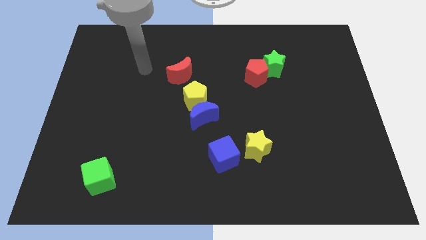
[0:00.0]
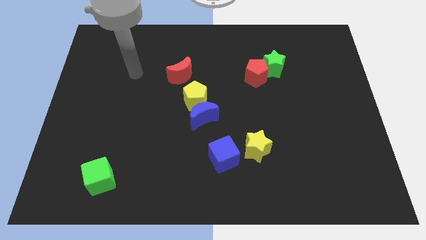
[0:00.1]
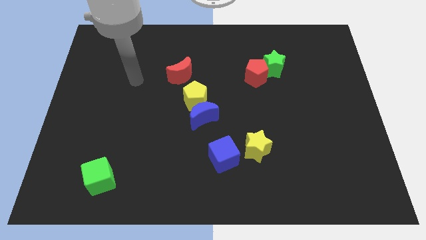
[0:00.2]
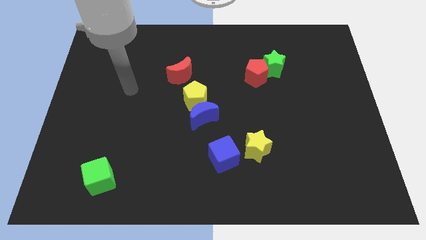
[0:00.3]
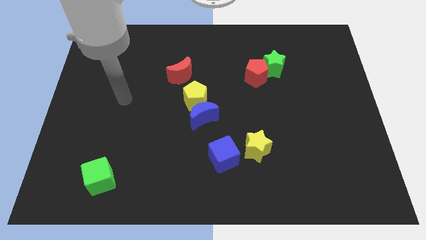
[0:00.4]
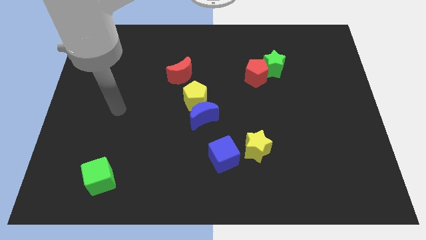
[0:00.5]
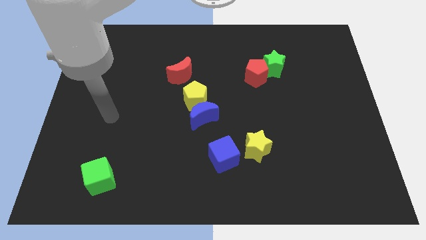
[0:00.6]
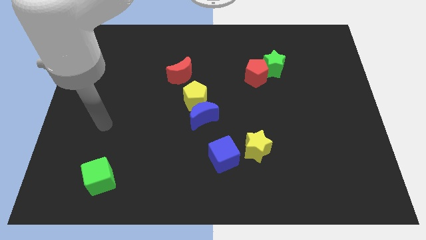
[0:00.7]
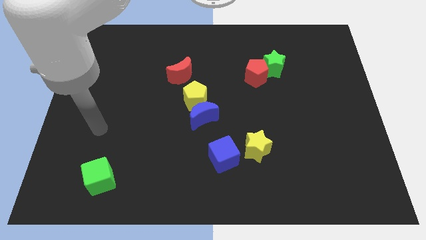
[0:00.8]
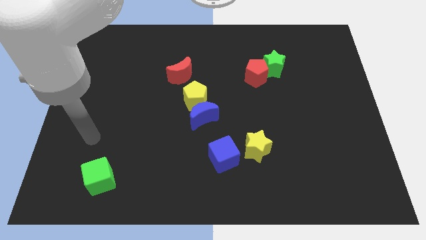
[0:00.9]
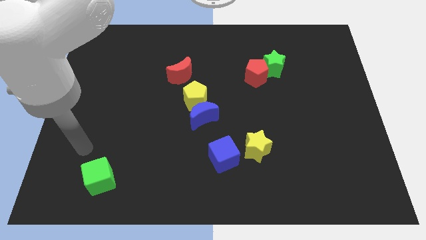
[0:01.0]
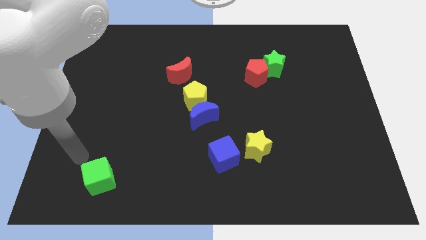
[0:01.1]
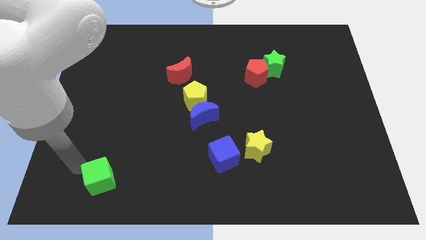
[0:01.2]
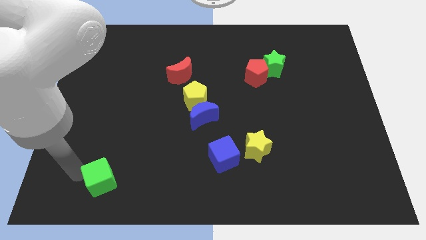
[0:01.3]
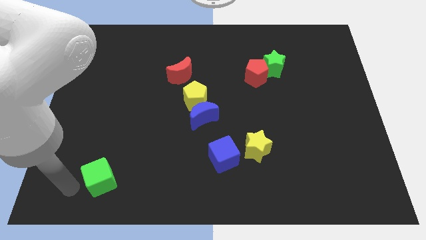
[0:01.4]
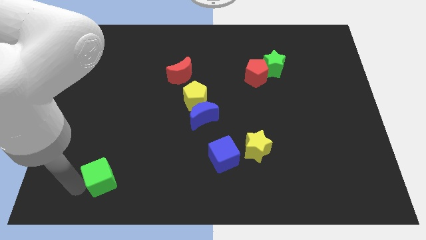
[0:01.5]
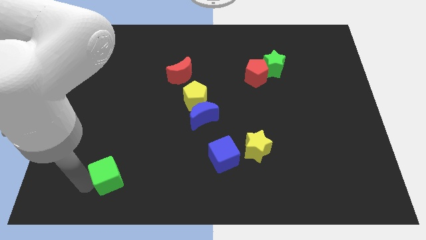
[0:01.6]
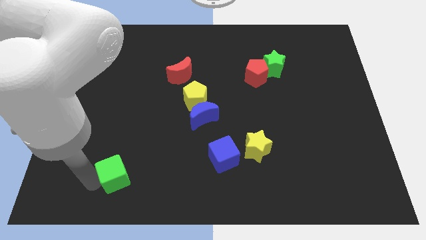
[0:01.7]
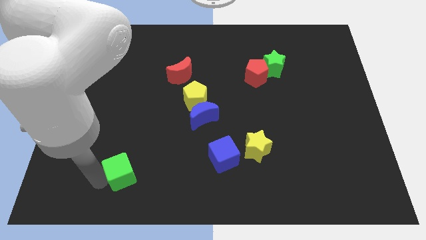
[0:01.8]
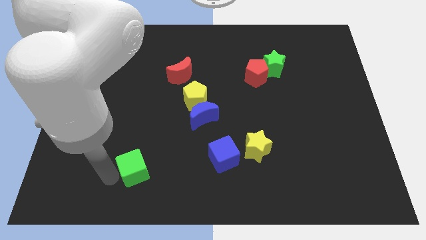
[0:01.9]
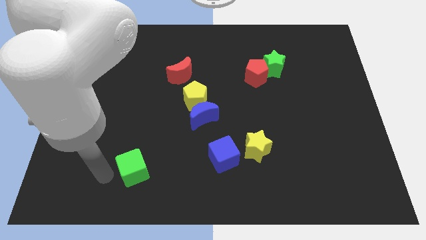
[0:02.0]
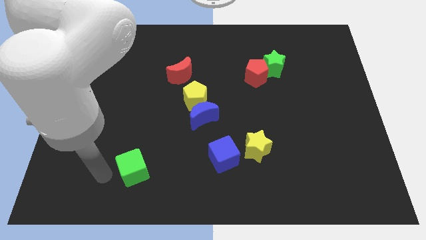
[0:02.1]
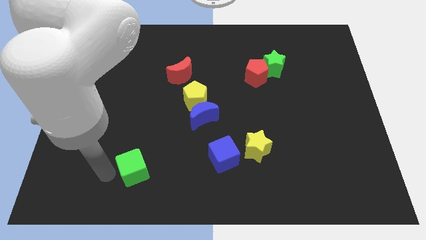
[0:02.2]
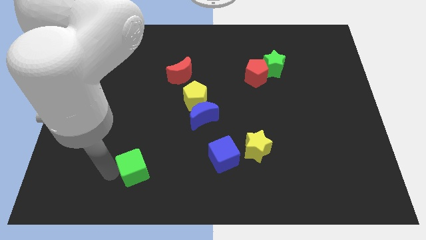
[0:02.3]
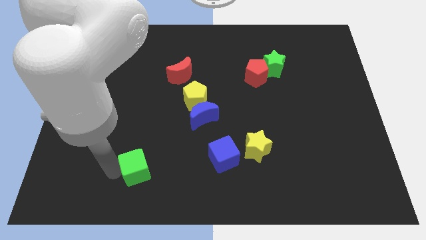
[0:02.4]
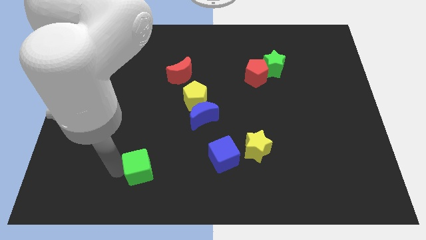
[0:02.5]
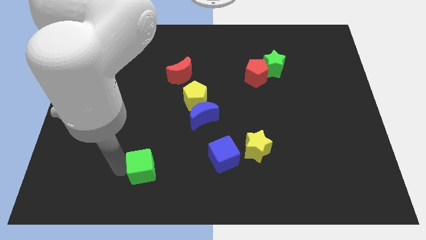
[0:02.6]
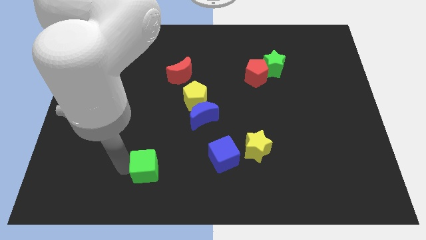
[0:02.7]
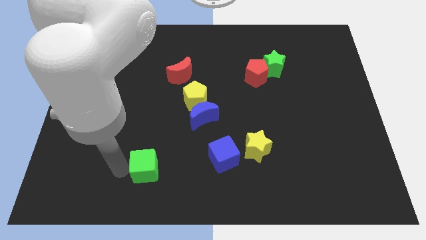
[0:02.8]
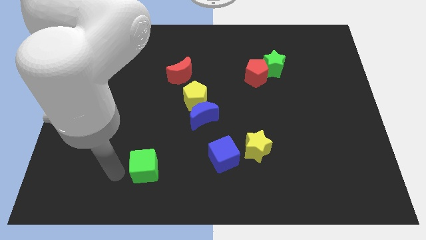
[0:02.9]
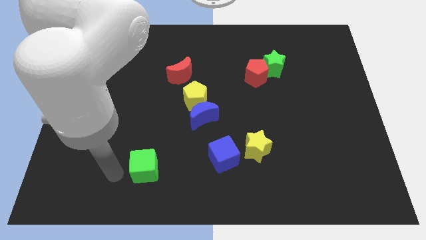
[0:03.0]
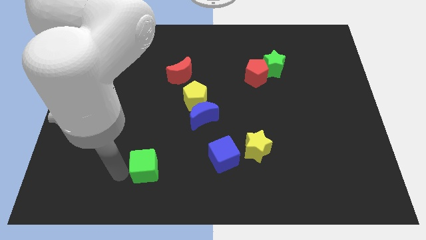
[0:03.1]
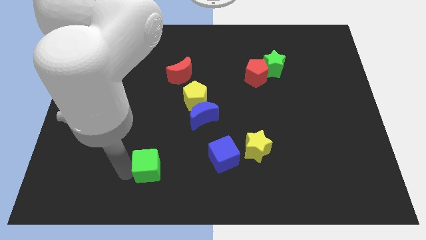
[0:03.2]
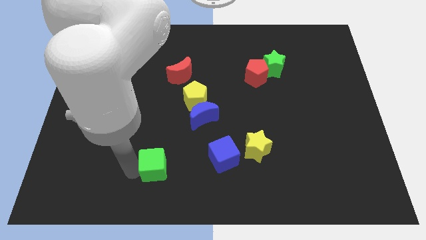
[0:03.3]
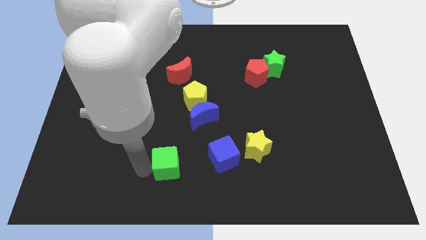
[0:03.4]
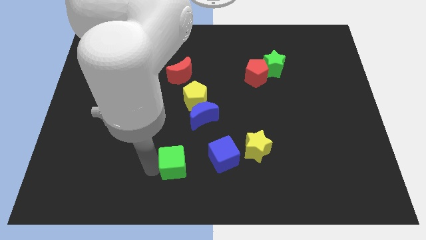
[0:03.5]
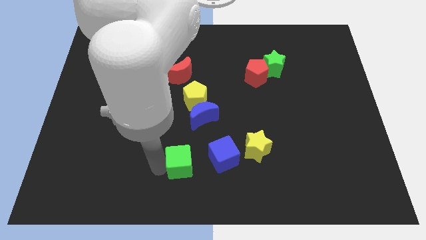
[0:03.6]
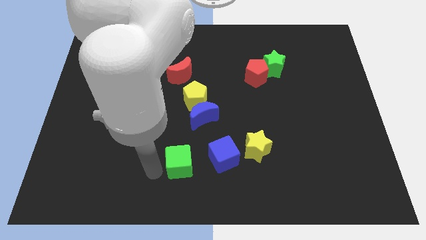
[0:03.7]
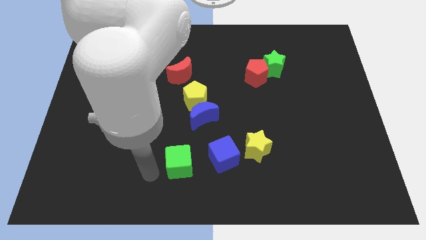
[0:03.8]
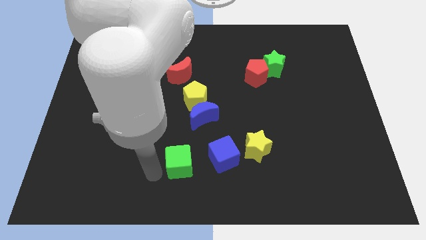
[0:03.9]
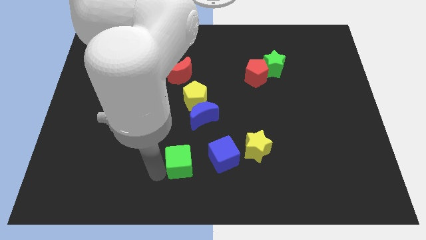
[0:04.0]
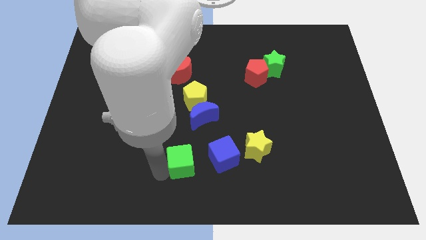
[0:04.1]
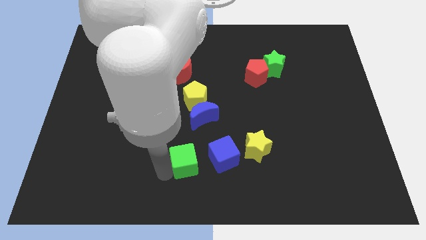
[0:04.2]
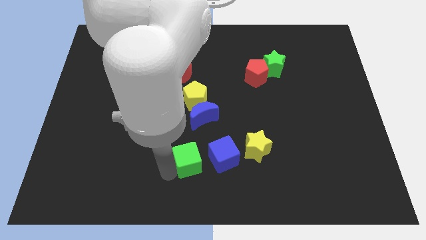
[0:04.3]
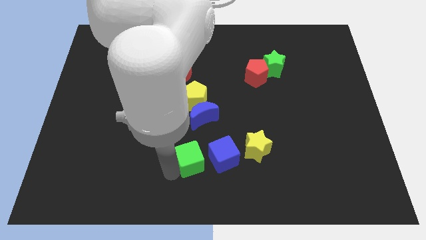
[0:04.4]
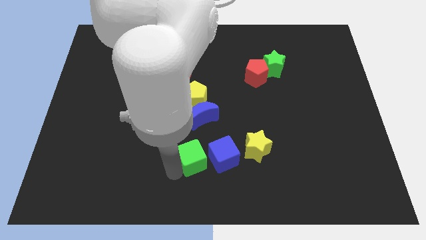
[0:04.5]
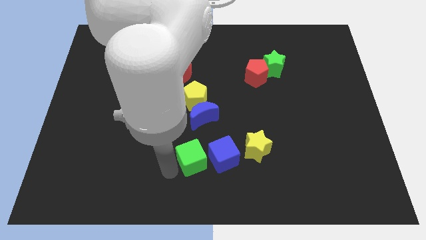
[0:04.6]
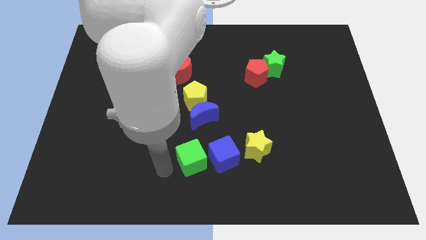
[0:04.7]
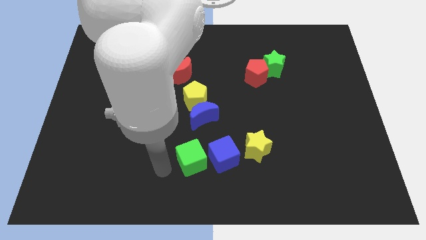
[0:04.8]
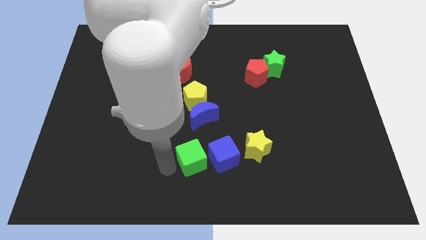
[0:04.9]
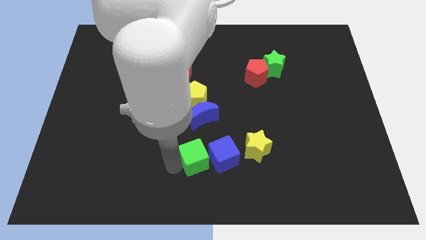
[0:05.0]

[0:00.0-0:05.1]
put the green cube next to the blue cube

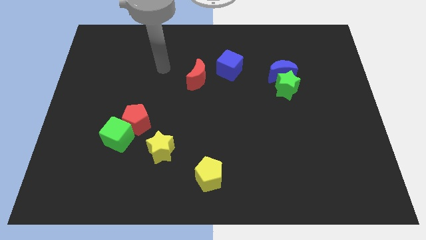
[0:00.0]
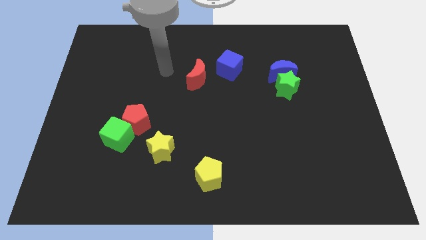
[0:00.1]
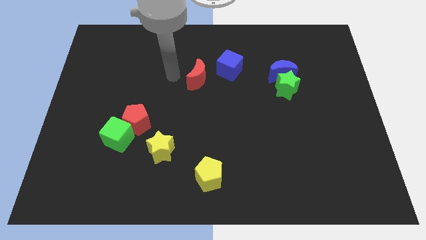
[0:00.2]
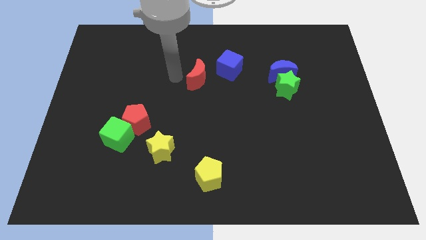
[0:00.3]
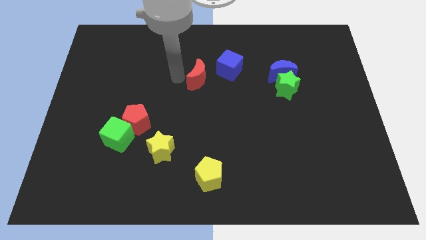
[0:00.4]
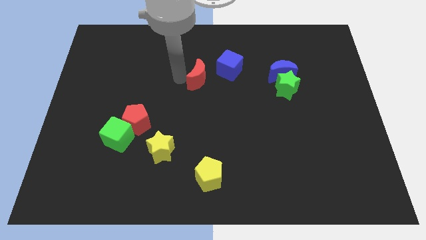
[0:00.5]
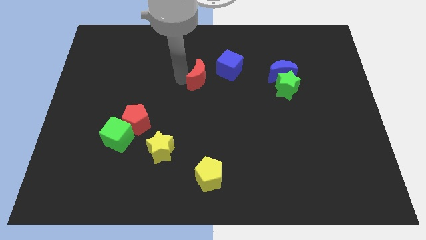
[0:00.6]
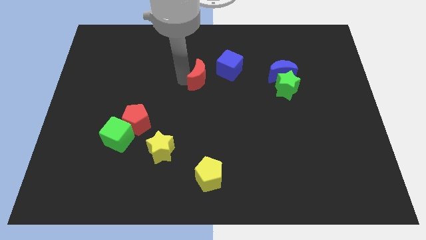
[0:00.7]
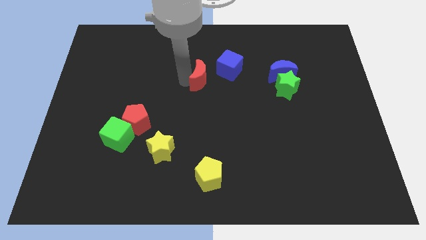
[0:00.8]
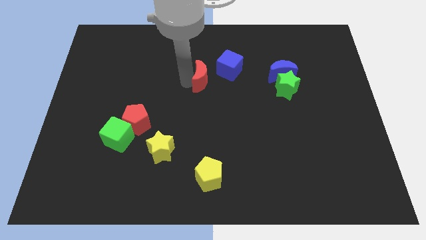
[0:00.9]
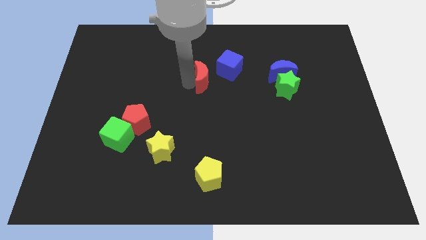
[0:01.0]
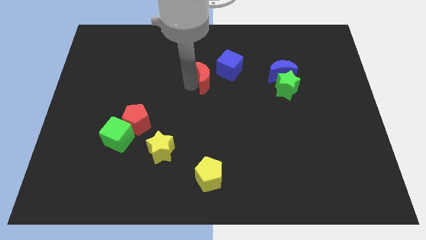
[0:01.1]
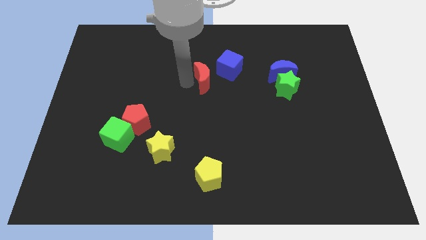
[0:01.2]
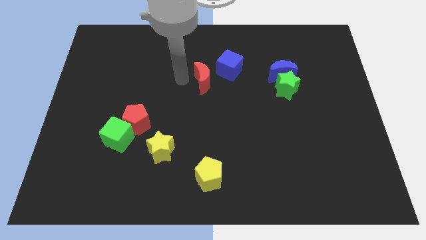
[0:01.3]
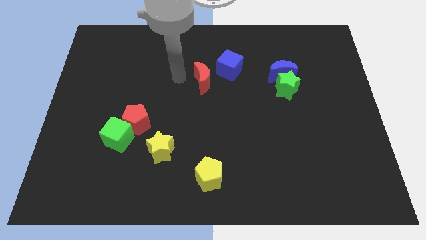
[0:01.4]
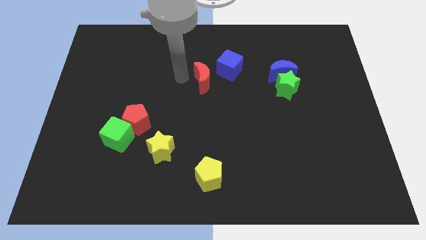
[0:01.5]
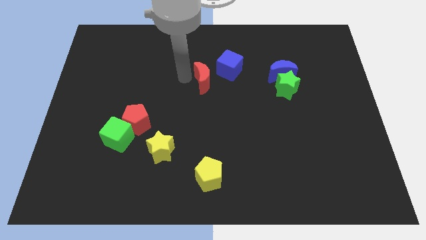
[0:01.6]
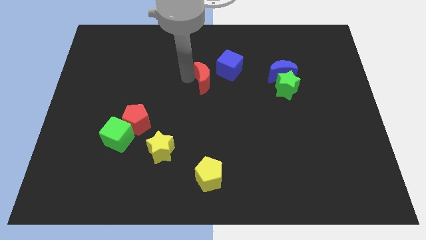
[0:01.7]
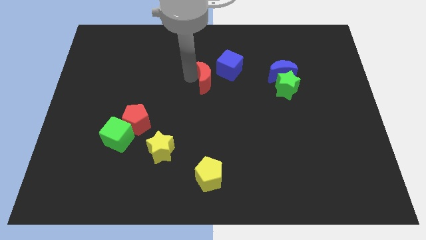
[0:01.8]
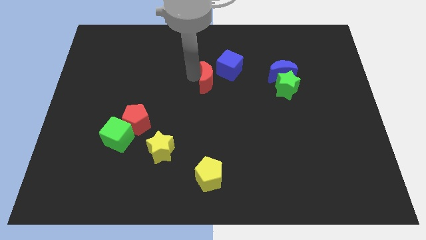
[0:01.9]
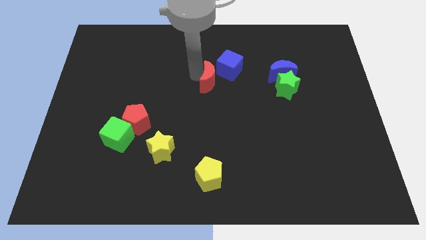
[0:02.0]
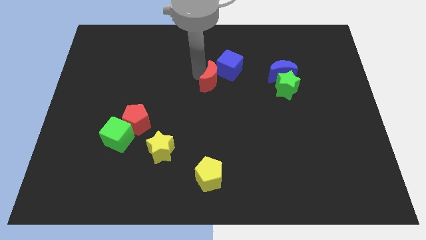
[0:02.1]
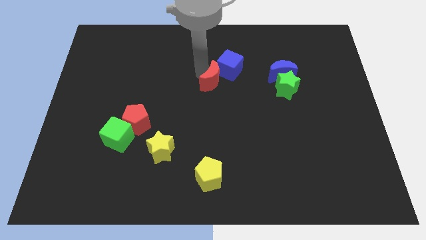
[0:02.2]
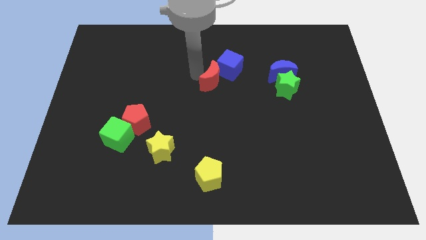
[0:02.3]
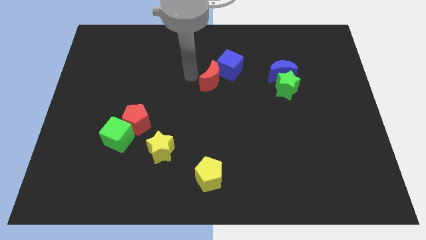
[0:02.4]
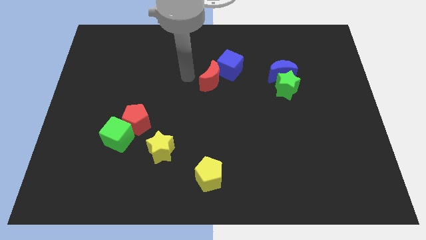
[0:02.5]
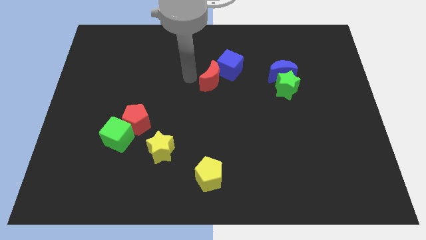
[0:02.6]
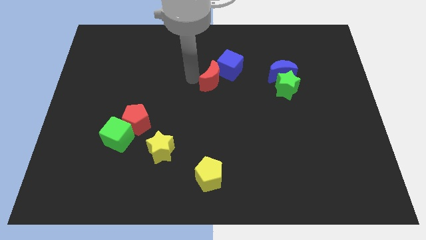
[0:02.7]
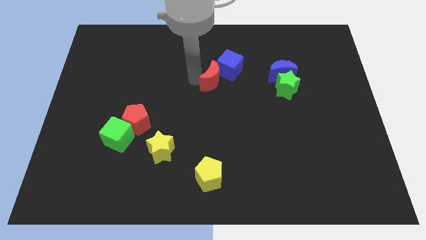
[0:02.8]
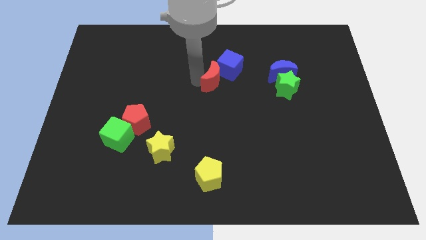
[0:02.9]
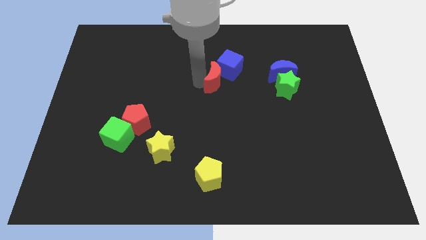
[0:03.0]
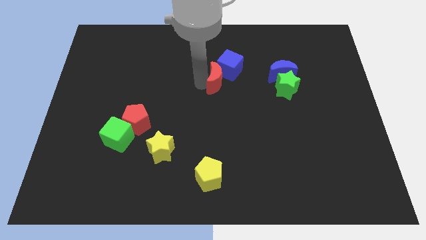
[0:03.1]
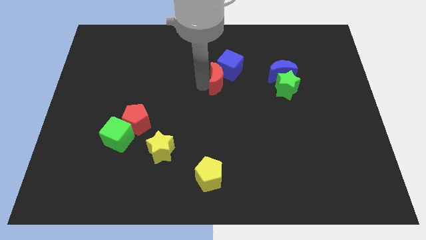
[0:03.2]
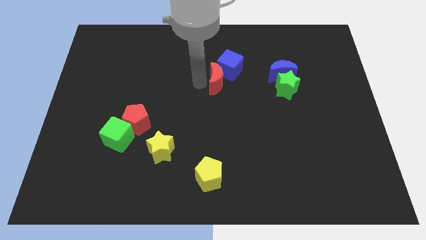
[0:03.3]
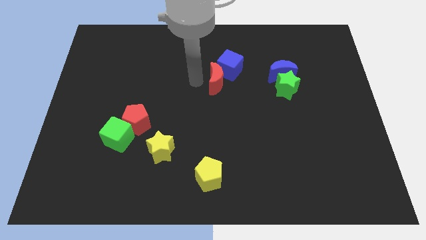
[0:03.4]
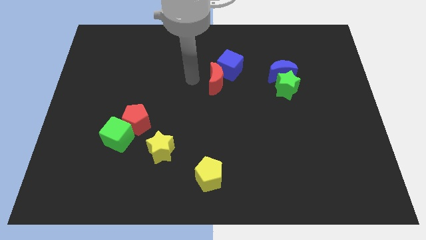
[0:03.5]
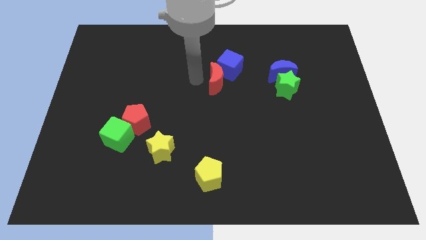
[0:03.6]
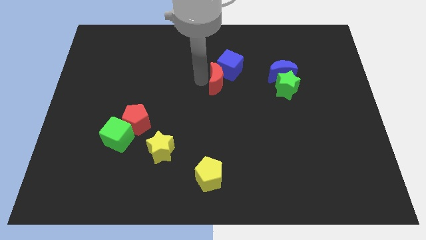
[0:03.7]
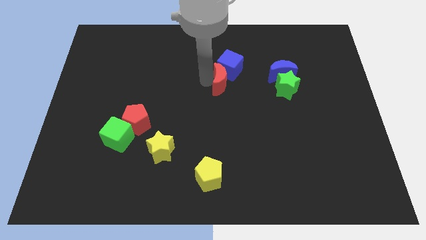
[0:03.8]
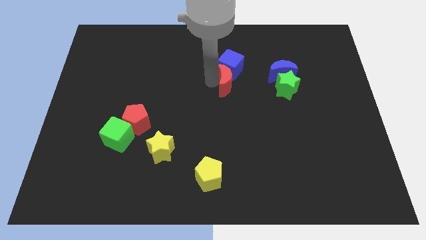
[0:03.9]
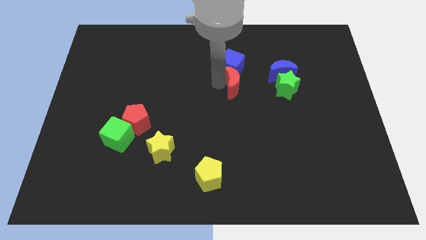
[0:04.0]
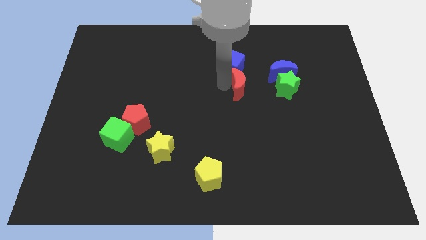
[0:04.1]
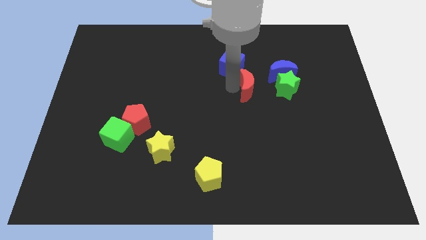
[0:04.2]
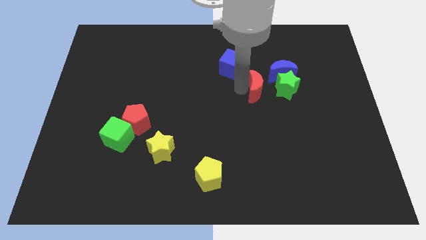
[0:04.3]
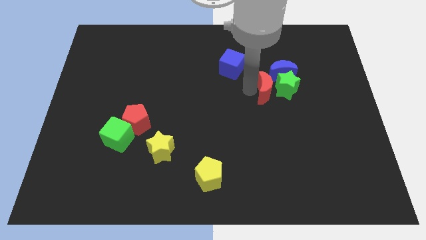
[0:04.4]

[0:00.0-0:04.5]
slide the red moon towards the green star
